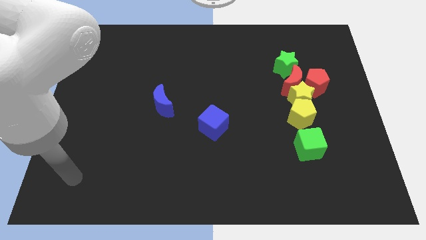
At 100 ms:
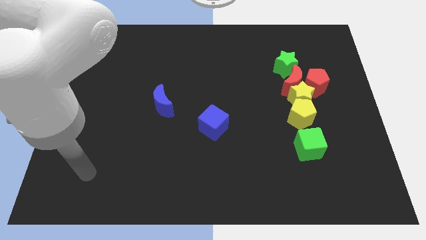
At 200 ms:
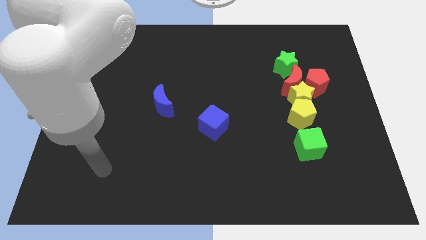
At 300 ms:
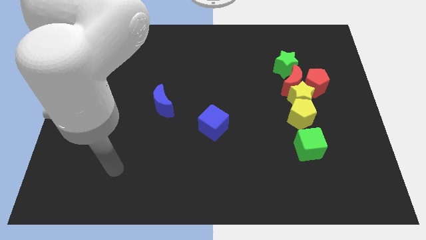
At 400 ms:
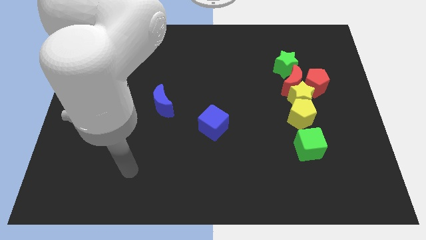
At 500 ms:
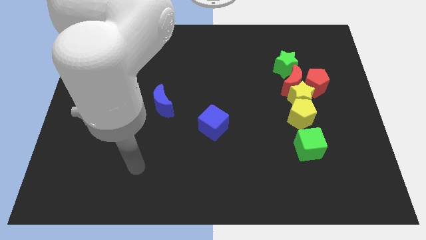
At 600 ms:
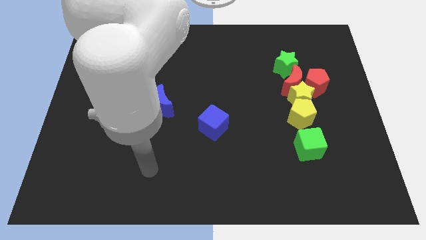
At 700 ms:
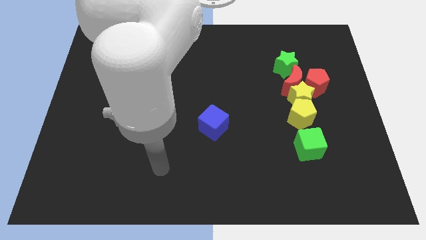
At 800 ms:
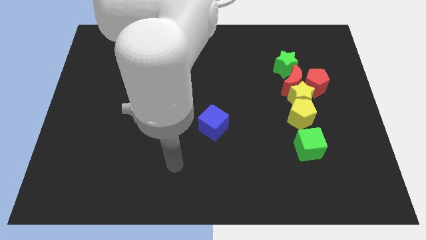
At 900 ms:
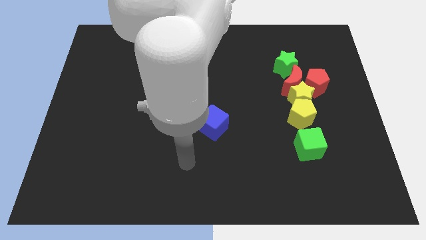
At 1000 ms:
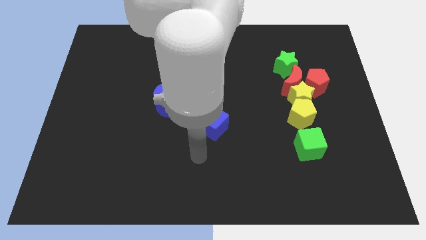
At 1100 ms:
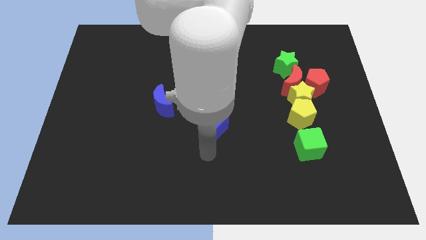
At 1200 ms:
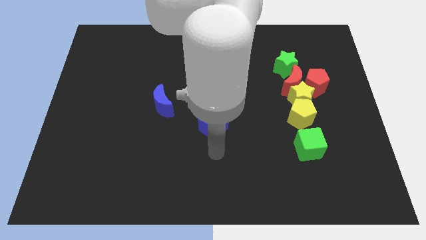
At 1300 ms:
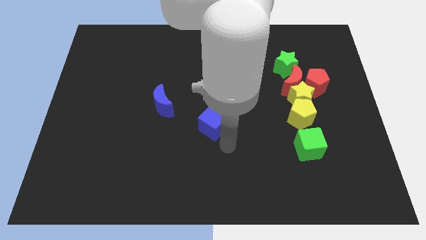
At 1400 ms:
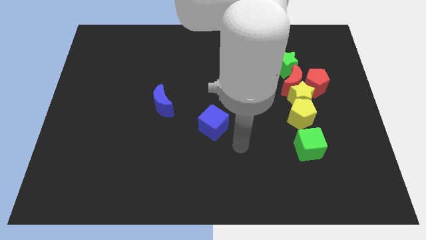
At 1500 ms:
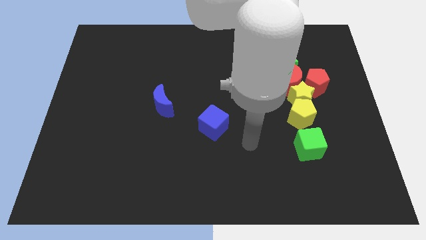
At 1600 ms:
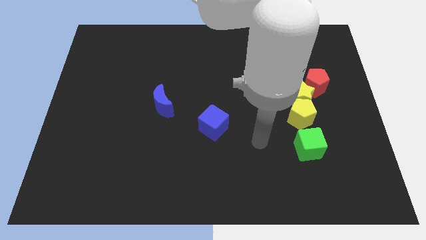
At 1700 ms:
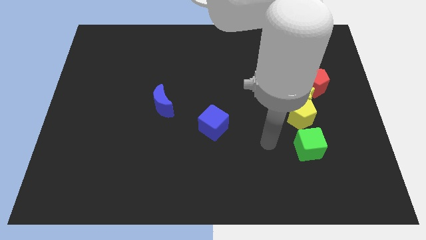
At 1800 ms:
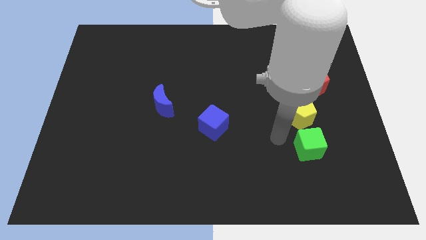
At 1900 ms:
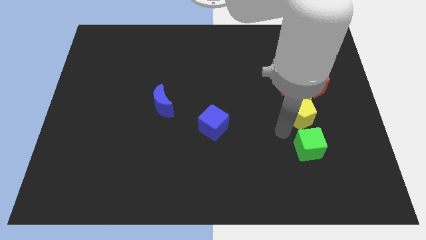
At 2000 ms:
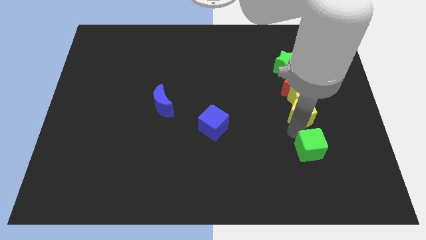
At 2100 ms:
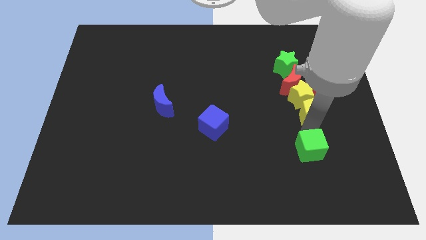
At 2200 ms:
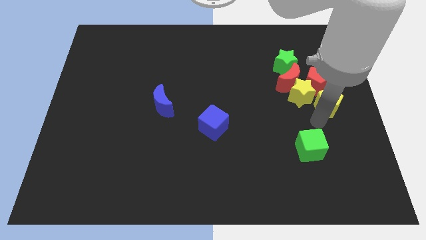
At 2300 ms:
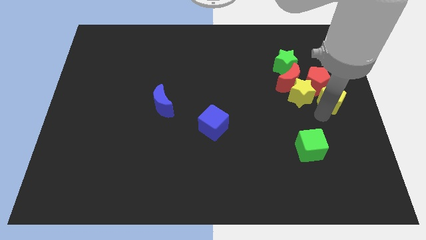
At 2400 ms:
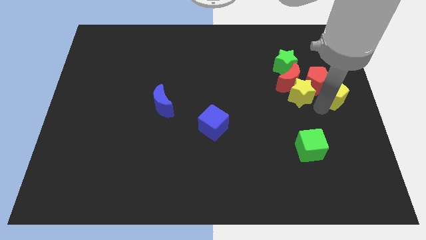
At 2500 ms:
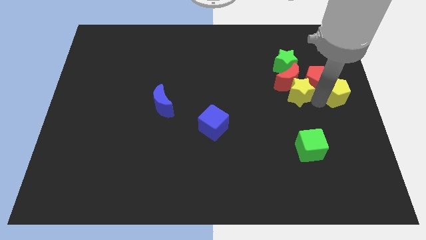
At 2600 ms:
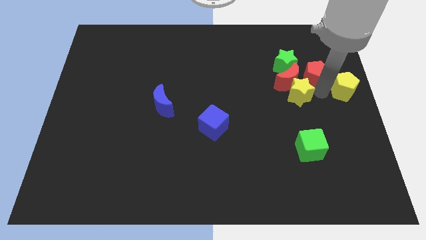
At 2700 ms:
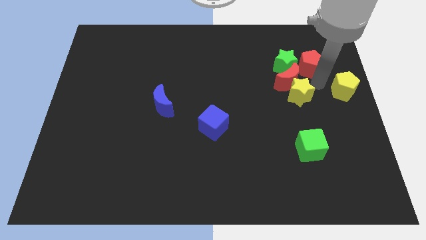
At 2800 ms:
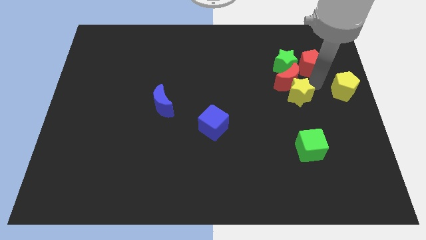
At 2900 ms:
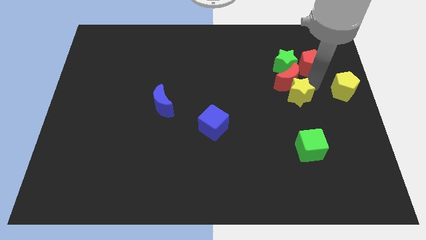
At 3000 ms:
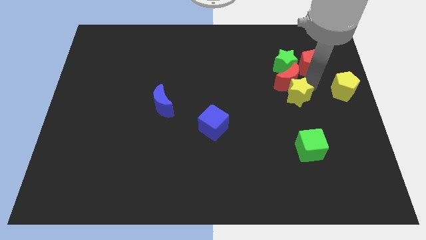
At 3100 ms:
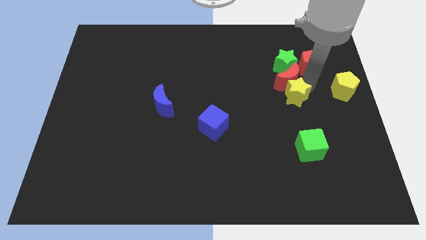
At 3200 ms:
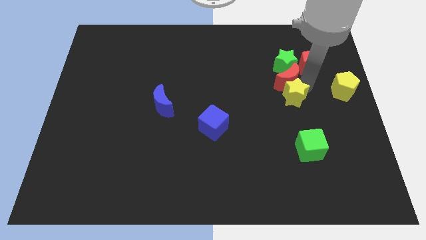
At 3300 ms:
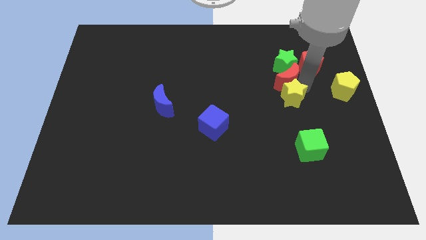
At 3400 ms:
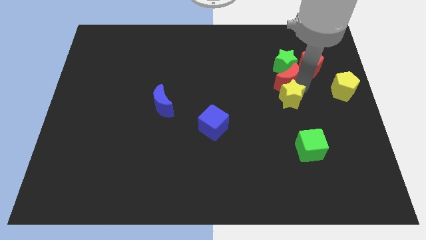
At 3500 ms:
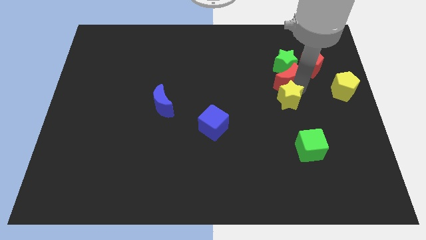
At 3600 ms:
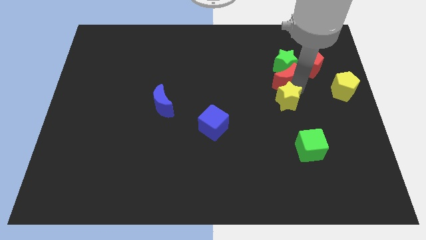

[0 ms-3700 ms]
move the yellow star away from the clump

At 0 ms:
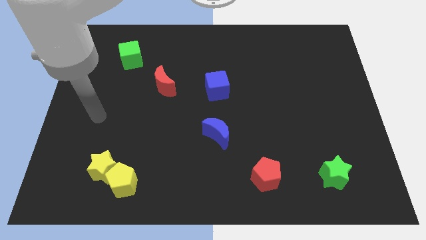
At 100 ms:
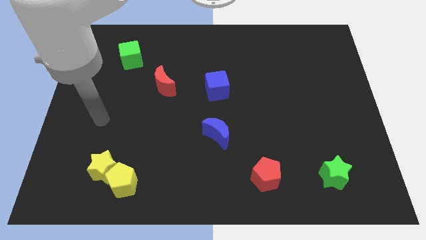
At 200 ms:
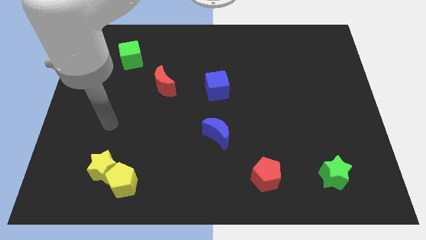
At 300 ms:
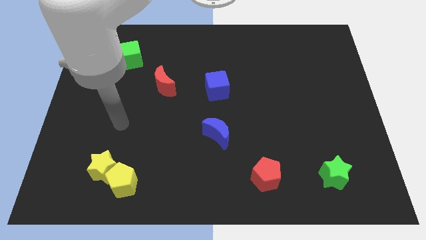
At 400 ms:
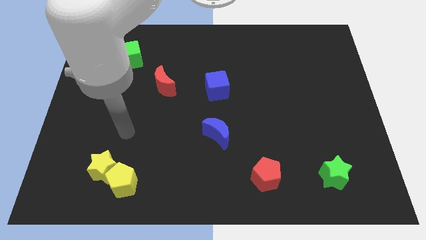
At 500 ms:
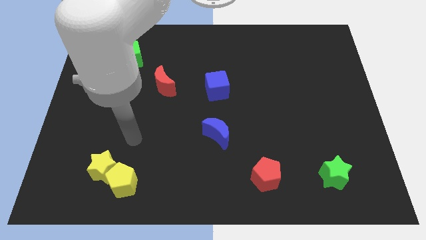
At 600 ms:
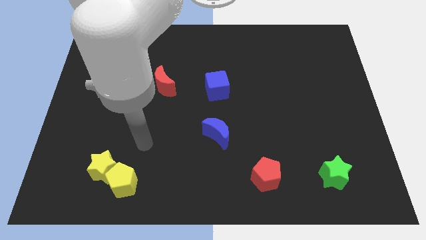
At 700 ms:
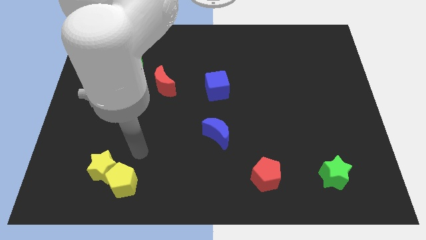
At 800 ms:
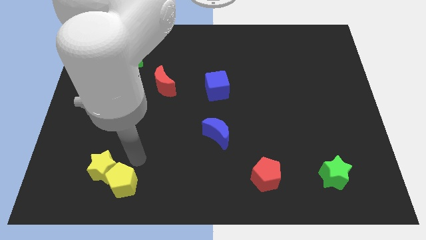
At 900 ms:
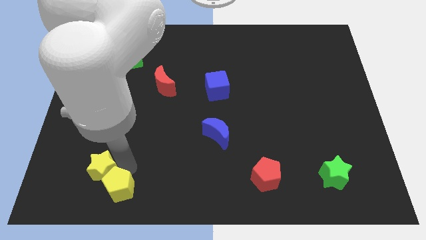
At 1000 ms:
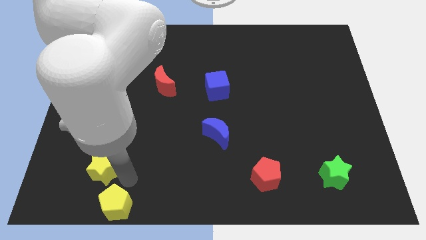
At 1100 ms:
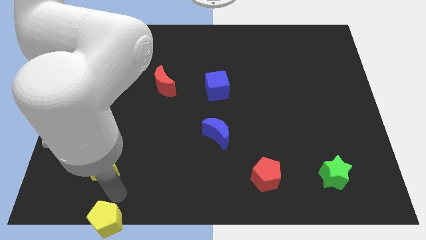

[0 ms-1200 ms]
pull the yellow star apart from the yellow pentagon

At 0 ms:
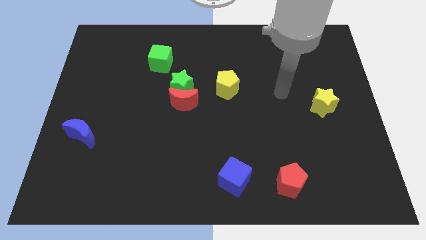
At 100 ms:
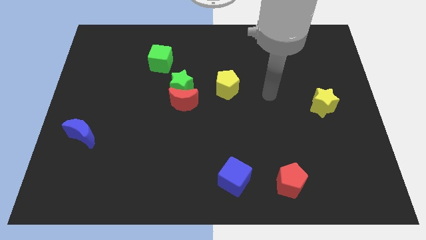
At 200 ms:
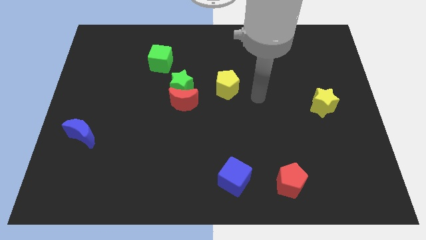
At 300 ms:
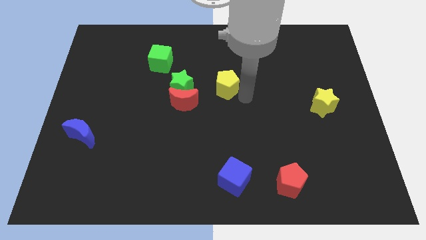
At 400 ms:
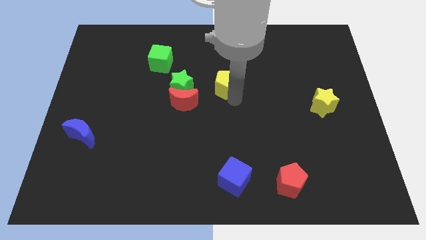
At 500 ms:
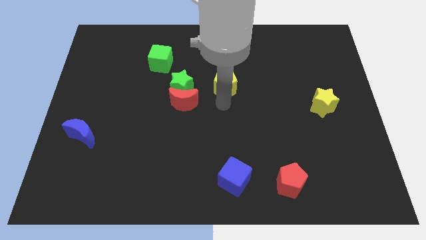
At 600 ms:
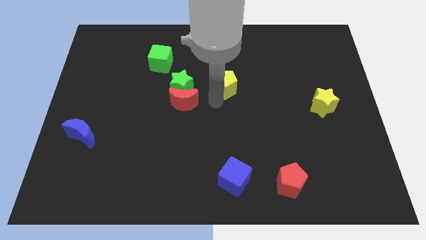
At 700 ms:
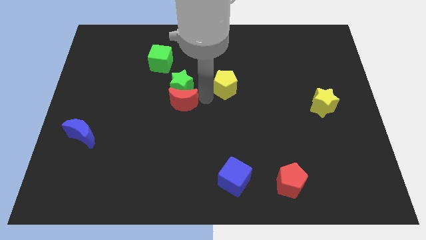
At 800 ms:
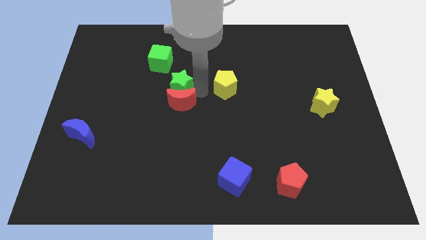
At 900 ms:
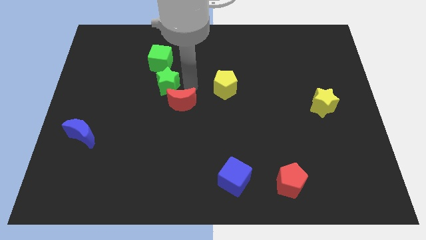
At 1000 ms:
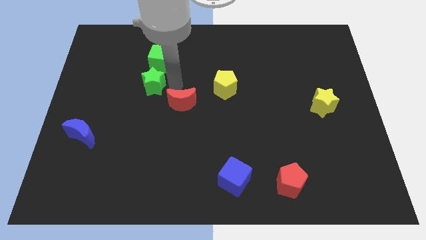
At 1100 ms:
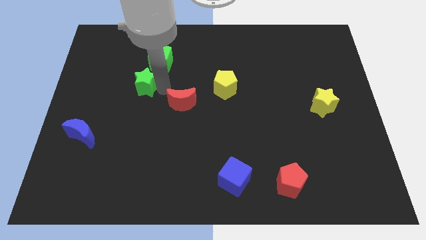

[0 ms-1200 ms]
pull the red moon apart from the green star

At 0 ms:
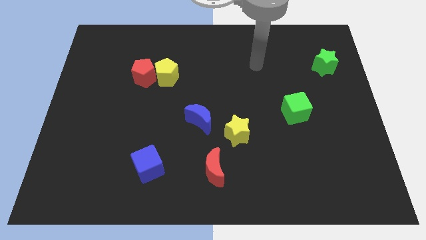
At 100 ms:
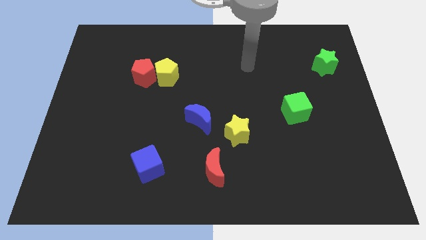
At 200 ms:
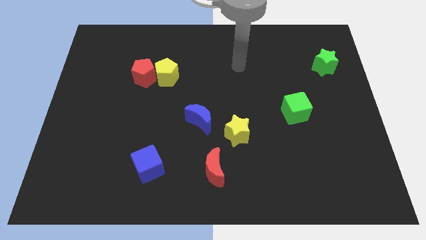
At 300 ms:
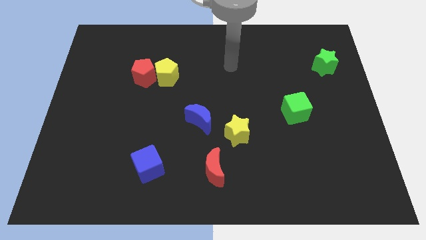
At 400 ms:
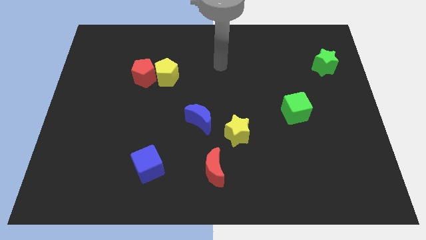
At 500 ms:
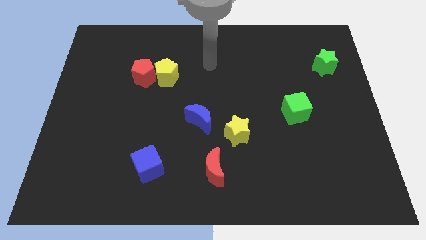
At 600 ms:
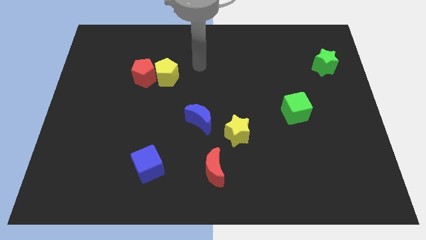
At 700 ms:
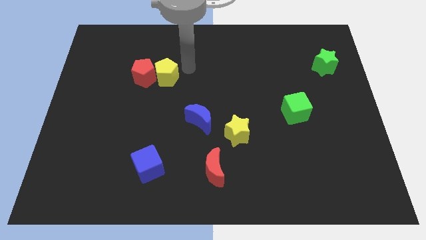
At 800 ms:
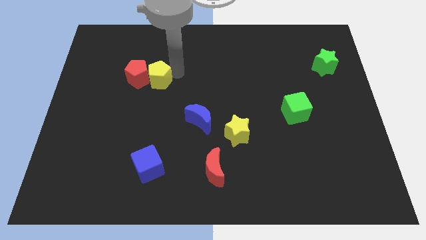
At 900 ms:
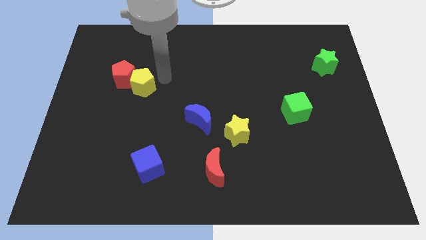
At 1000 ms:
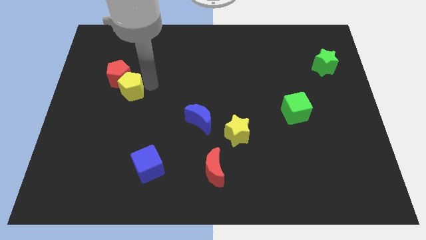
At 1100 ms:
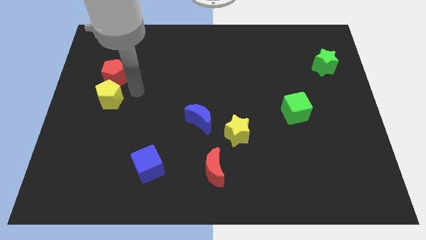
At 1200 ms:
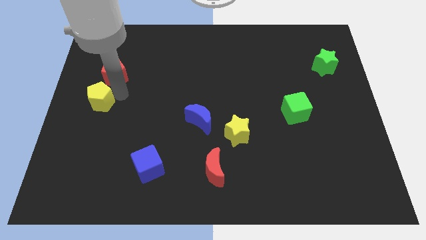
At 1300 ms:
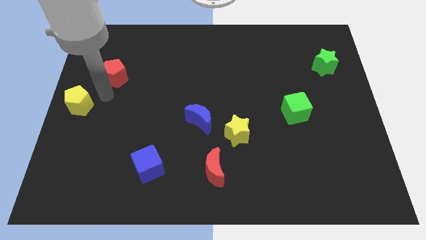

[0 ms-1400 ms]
pull the red pentagon apart from the yellow pentagon

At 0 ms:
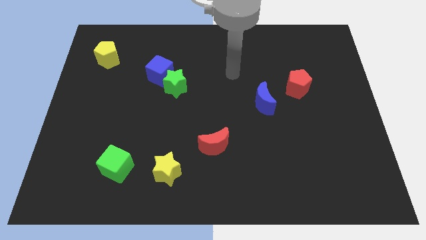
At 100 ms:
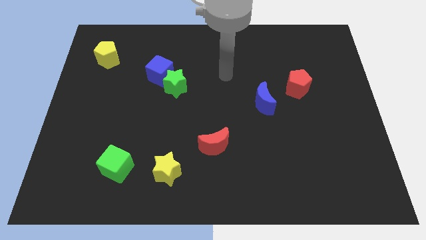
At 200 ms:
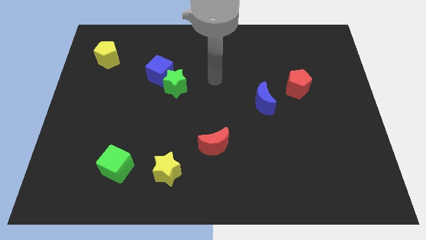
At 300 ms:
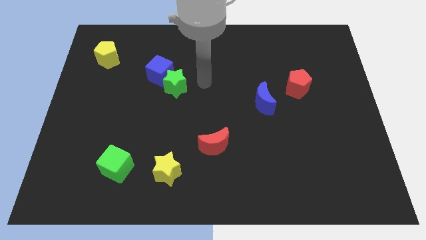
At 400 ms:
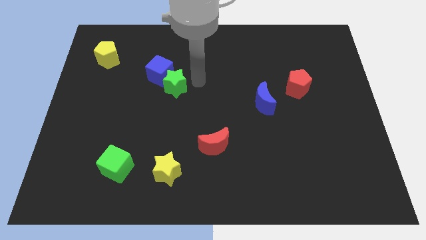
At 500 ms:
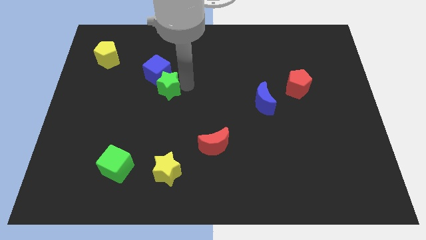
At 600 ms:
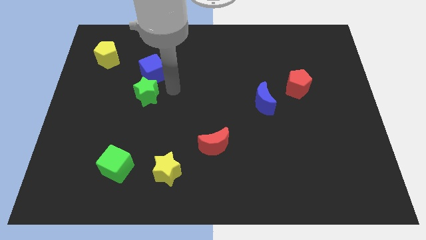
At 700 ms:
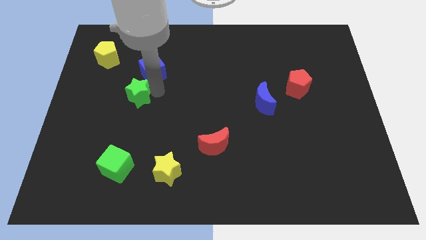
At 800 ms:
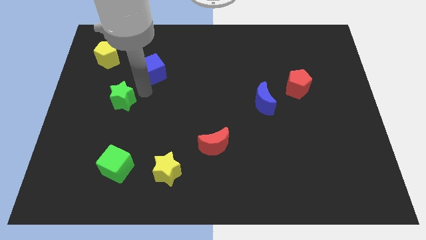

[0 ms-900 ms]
pull the blue cube apart from the green star

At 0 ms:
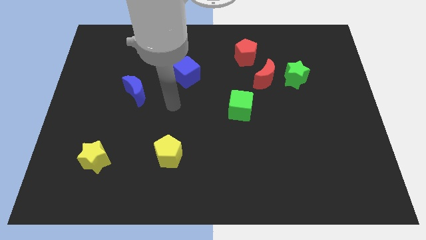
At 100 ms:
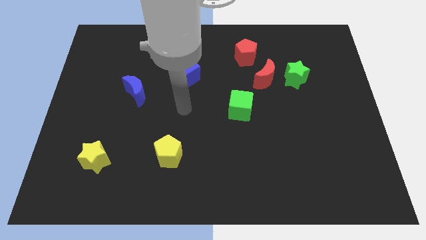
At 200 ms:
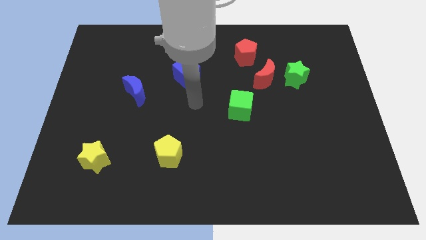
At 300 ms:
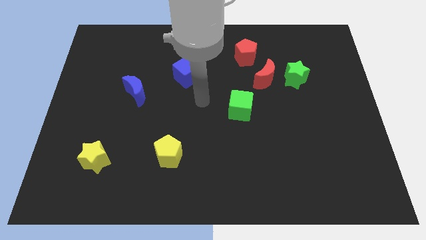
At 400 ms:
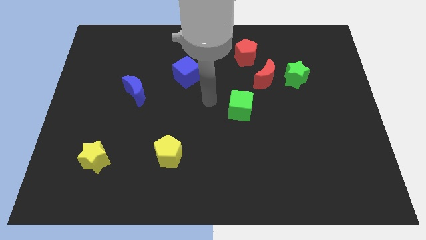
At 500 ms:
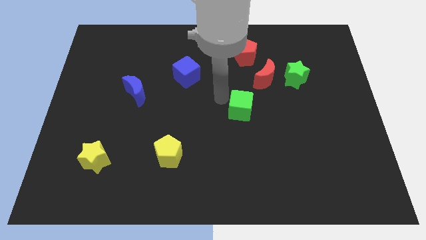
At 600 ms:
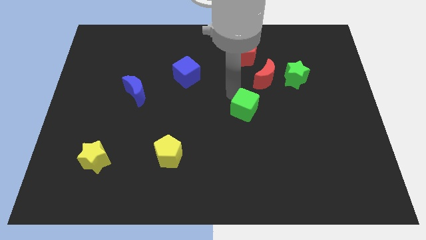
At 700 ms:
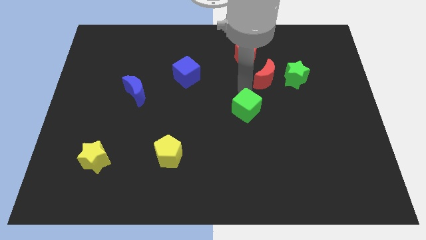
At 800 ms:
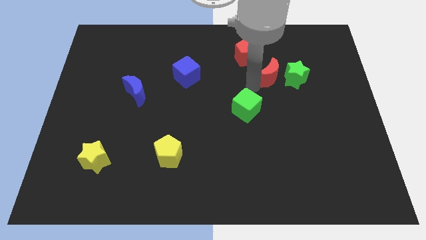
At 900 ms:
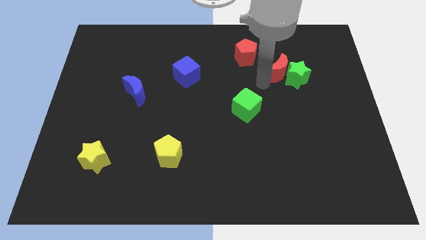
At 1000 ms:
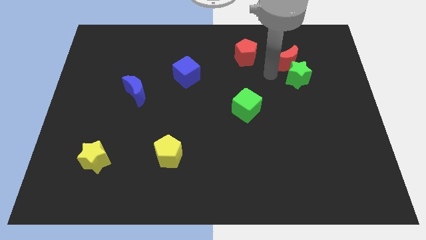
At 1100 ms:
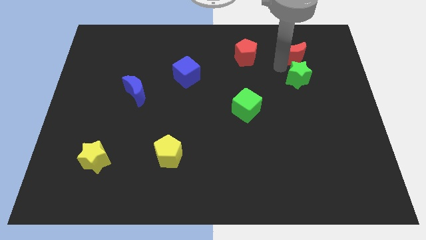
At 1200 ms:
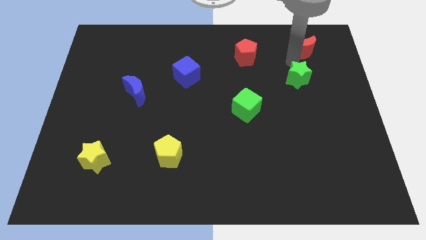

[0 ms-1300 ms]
move the green star away from the red moon
